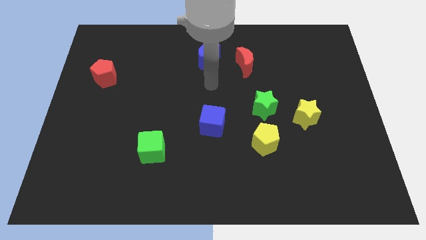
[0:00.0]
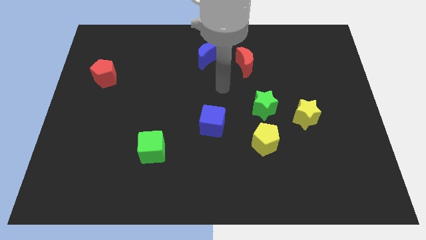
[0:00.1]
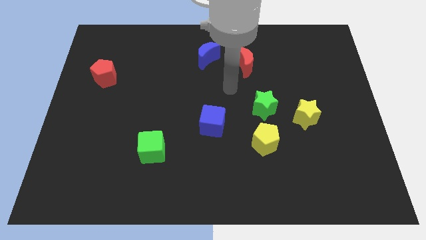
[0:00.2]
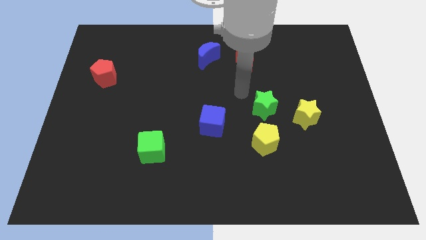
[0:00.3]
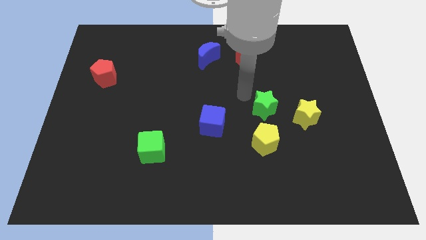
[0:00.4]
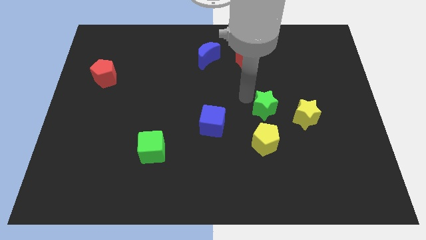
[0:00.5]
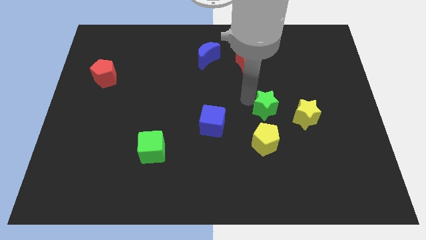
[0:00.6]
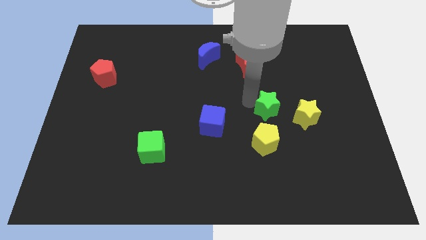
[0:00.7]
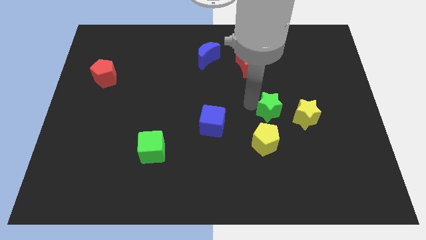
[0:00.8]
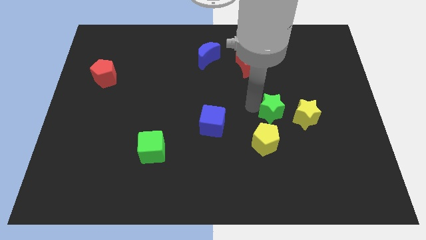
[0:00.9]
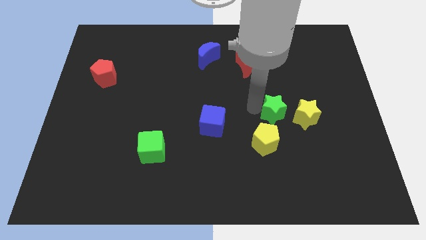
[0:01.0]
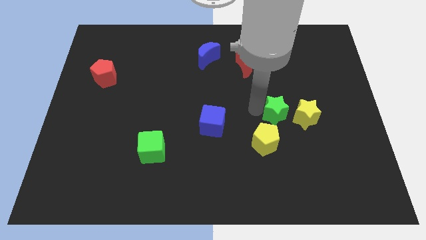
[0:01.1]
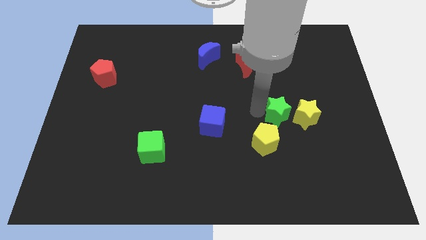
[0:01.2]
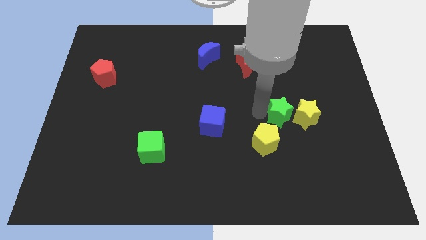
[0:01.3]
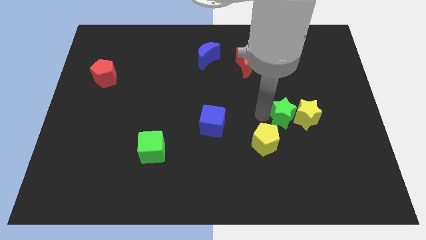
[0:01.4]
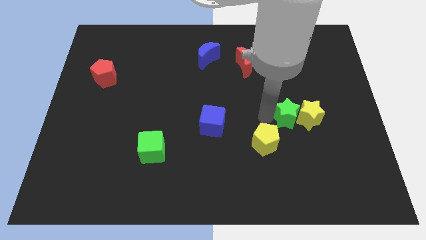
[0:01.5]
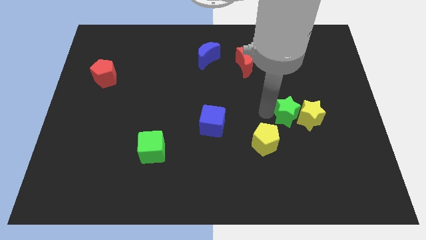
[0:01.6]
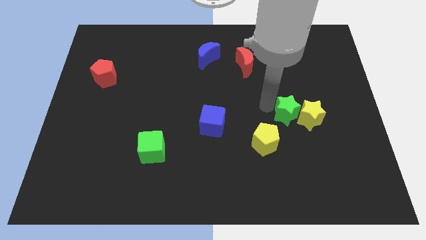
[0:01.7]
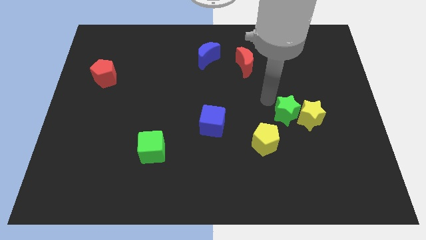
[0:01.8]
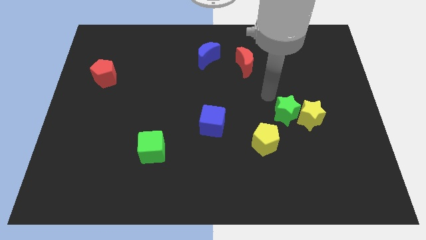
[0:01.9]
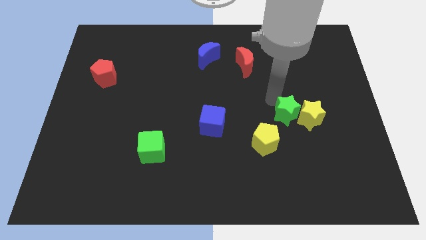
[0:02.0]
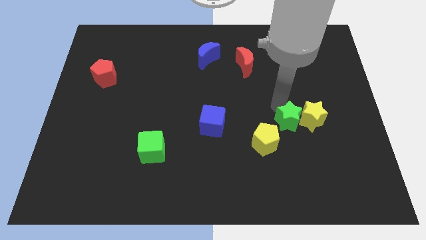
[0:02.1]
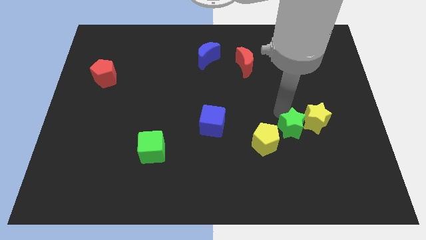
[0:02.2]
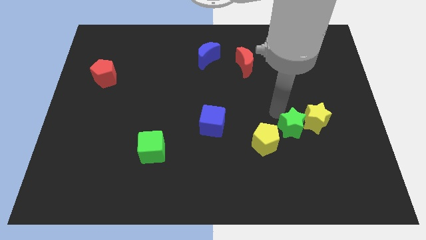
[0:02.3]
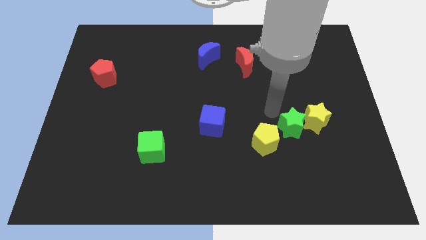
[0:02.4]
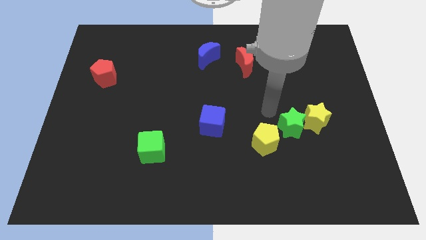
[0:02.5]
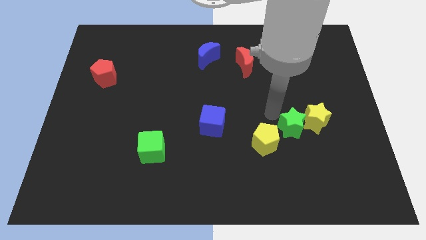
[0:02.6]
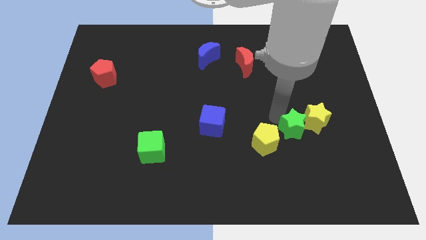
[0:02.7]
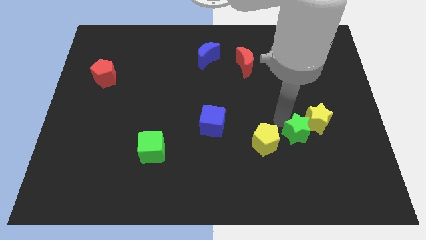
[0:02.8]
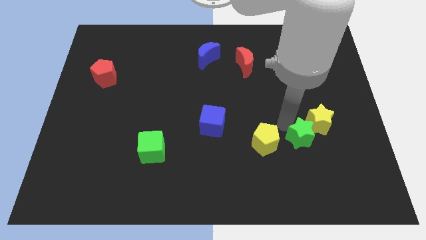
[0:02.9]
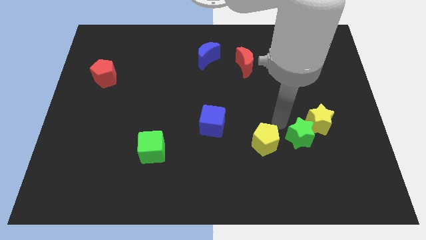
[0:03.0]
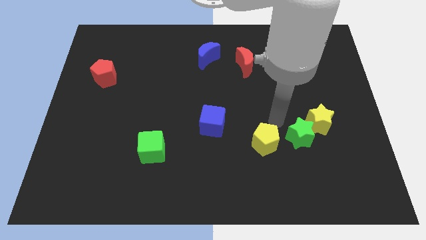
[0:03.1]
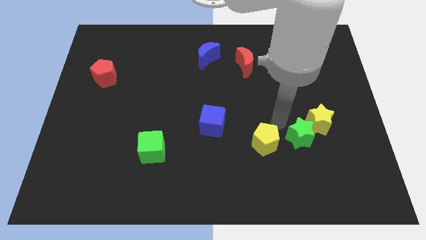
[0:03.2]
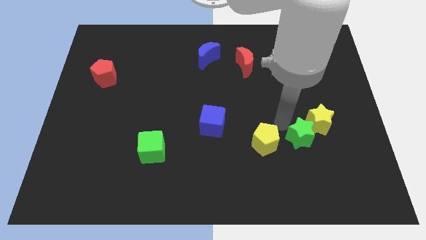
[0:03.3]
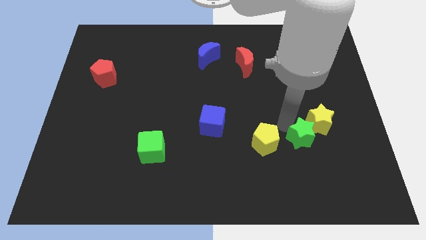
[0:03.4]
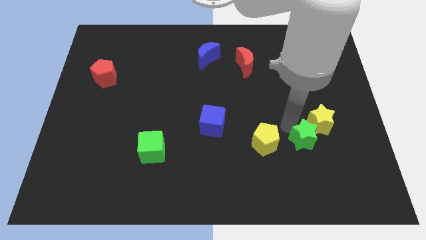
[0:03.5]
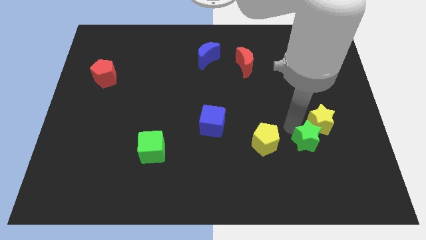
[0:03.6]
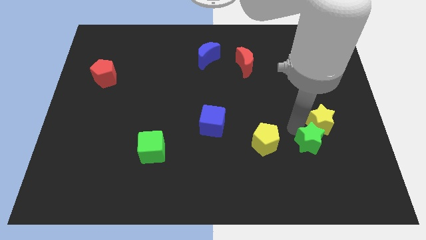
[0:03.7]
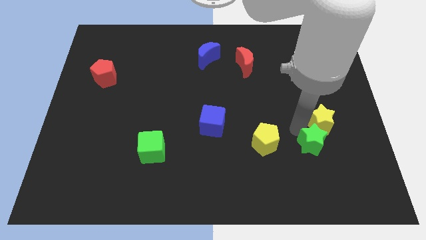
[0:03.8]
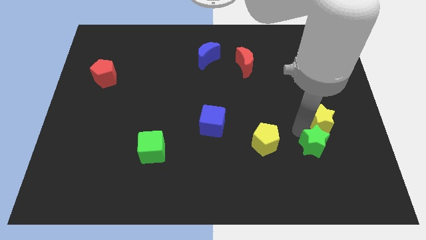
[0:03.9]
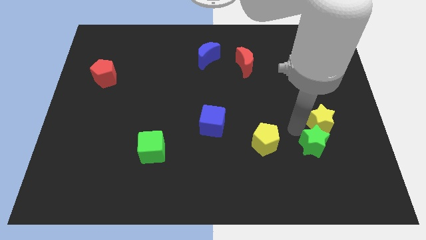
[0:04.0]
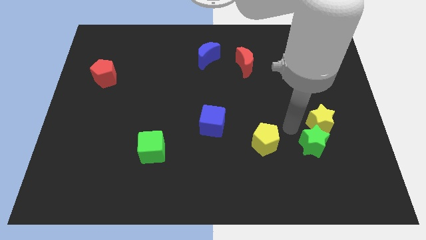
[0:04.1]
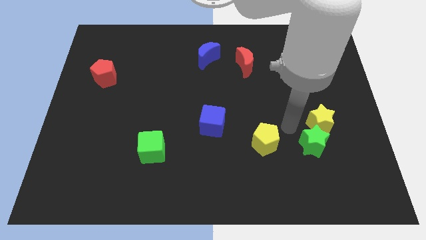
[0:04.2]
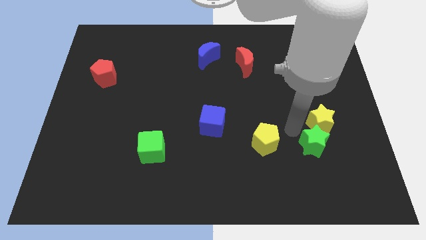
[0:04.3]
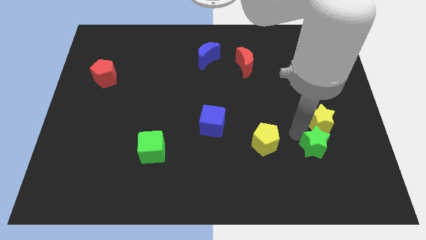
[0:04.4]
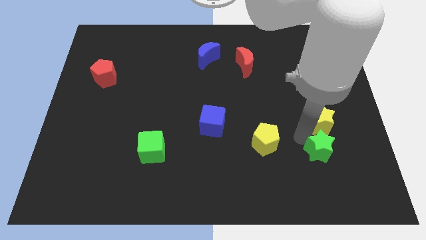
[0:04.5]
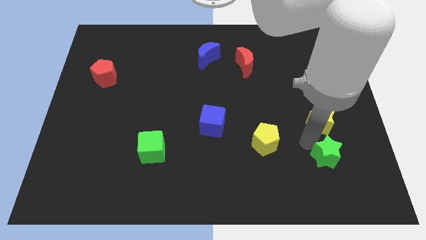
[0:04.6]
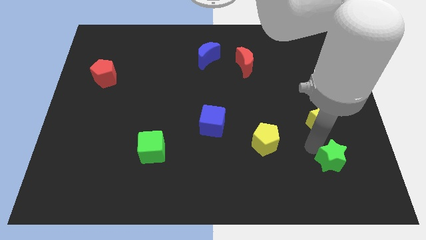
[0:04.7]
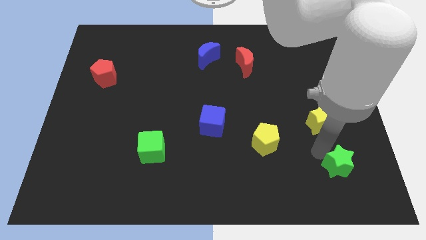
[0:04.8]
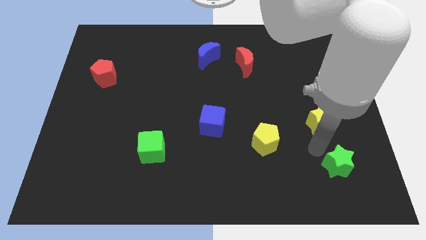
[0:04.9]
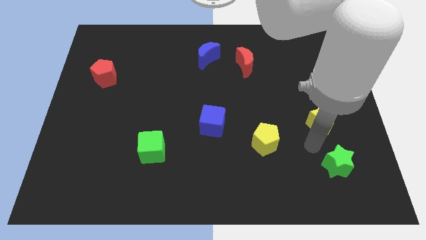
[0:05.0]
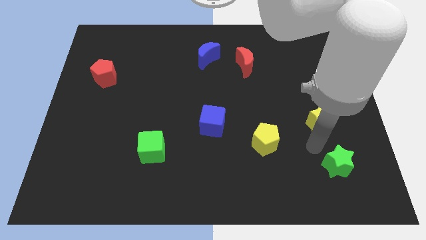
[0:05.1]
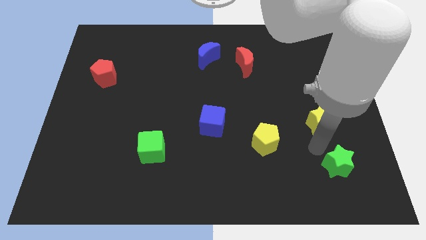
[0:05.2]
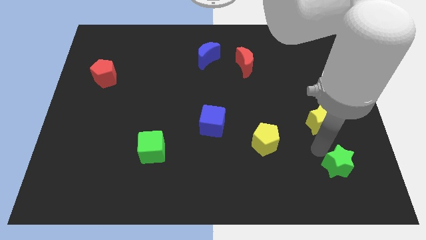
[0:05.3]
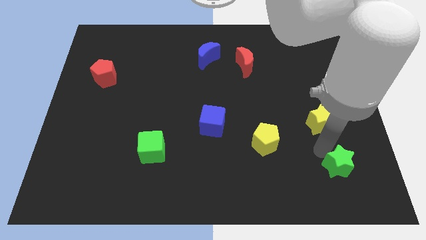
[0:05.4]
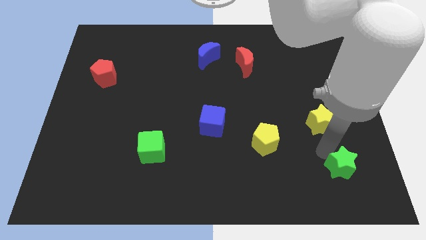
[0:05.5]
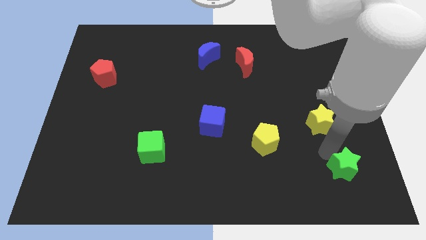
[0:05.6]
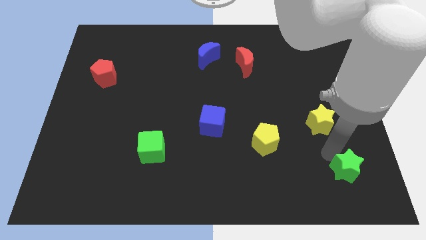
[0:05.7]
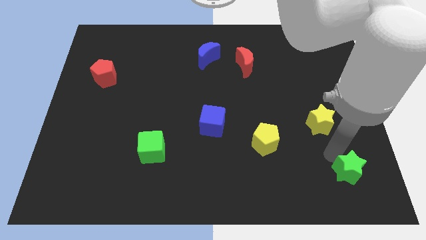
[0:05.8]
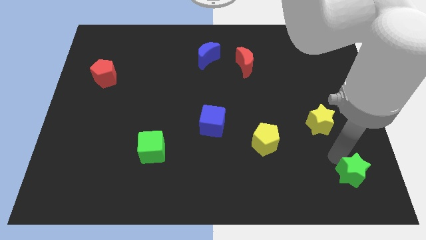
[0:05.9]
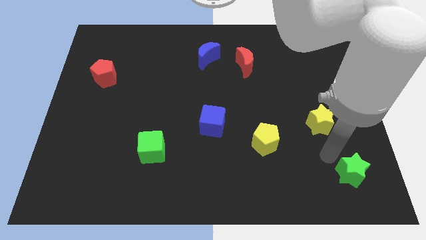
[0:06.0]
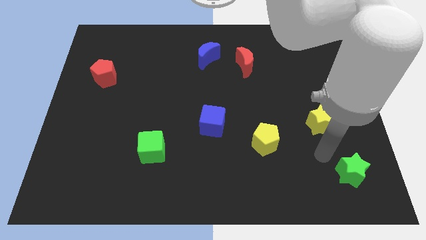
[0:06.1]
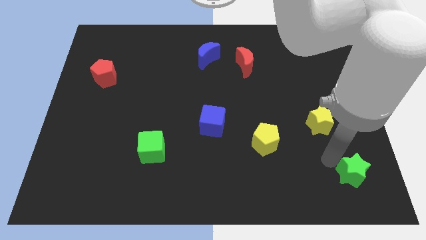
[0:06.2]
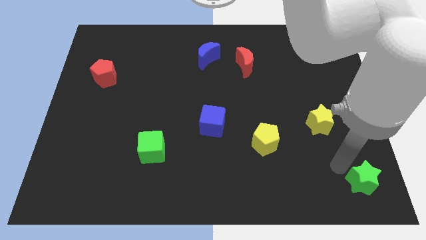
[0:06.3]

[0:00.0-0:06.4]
push the green star to the bottom right corner
